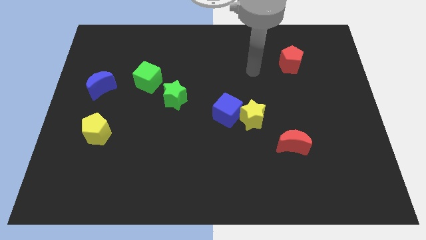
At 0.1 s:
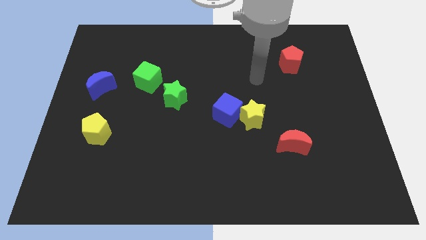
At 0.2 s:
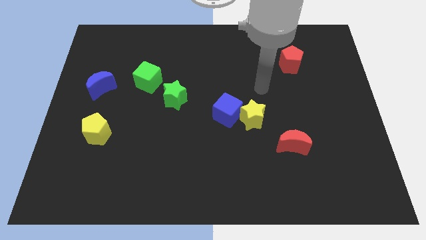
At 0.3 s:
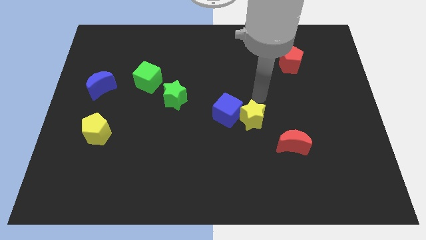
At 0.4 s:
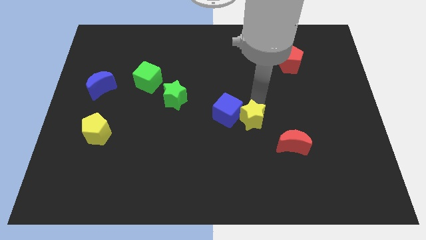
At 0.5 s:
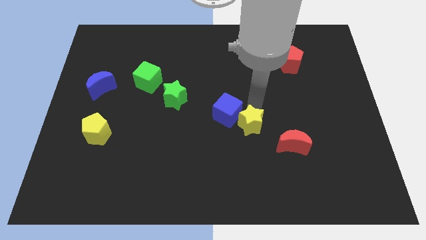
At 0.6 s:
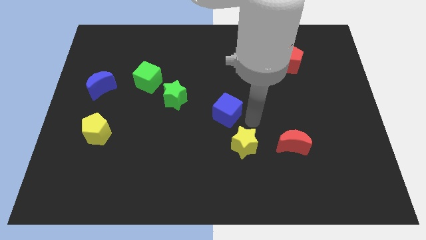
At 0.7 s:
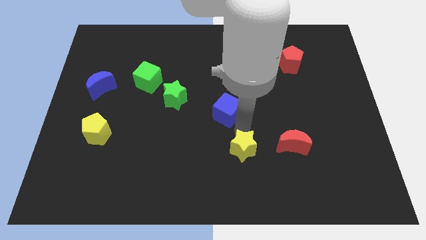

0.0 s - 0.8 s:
move the blue cube away from the yellow star

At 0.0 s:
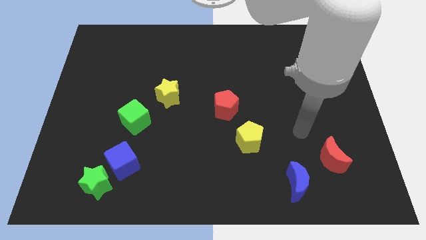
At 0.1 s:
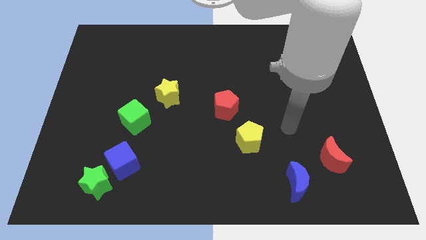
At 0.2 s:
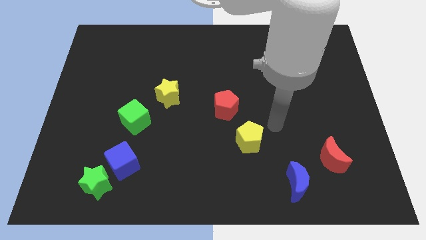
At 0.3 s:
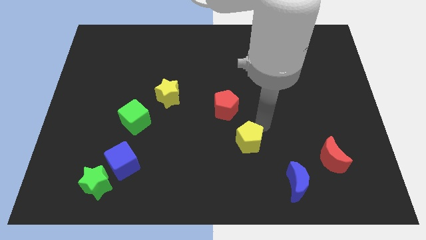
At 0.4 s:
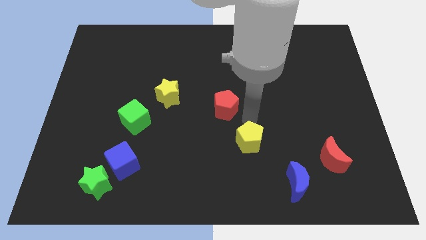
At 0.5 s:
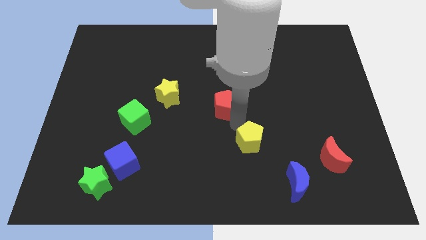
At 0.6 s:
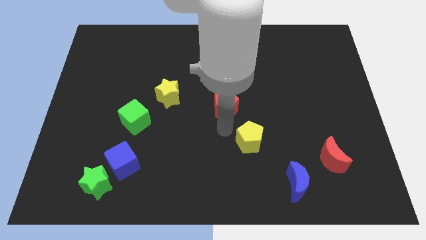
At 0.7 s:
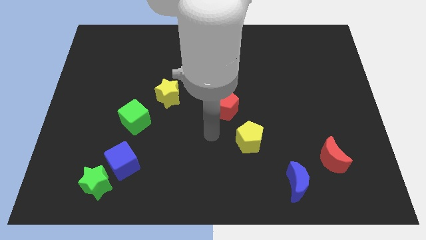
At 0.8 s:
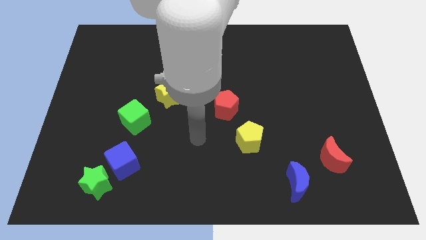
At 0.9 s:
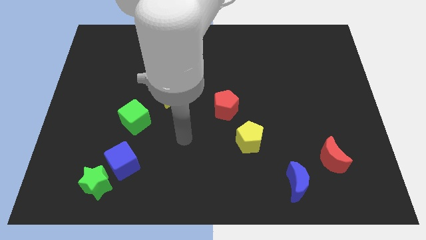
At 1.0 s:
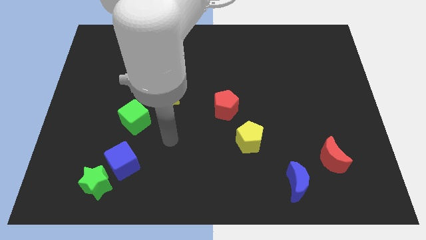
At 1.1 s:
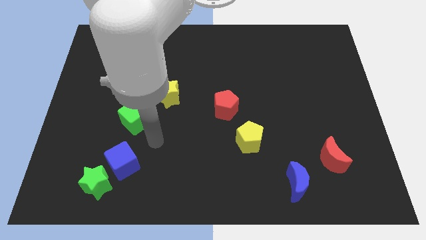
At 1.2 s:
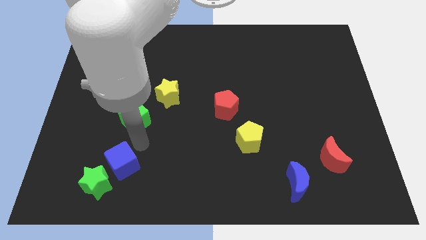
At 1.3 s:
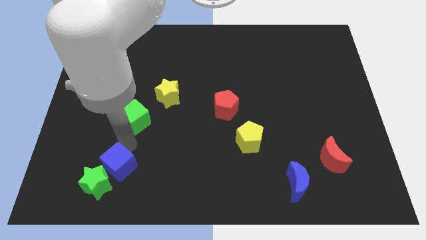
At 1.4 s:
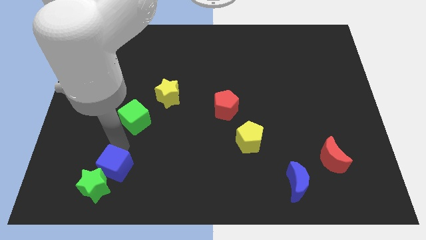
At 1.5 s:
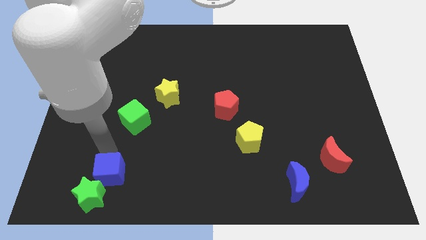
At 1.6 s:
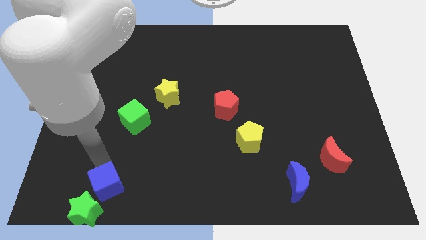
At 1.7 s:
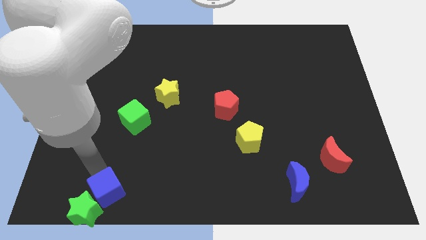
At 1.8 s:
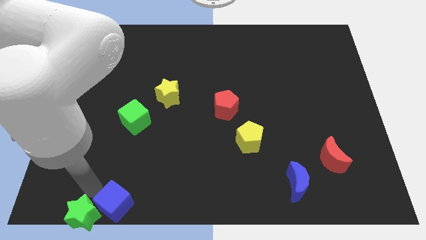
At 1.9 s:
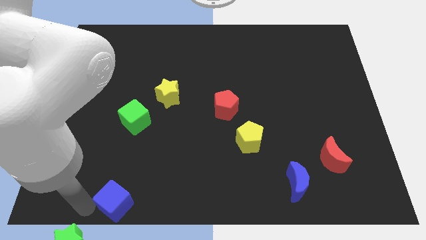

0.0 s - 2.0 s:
move the blue cube away from the green star

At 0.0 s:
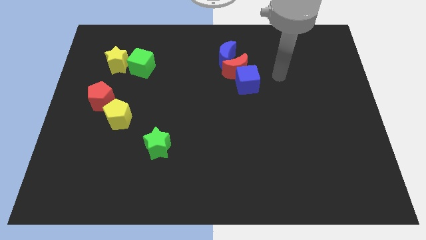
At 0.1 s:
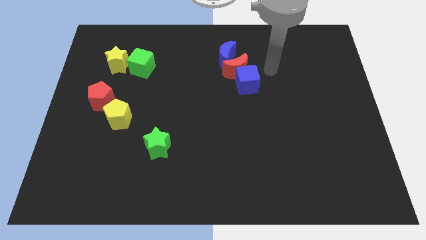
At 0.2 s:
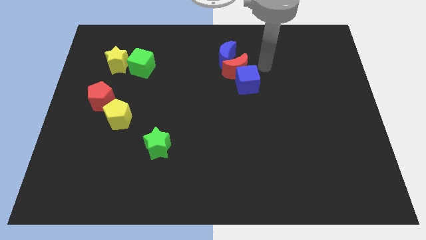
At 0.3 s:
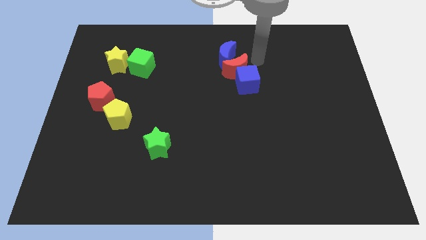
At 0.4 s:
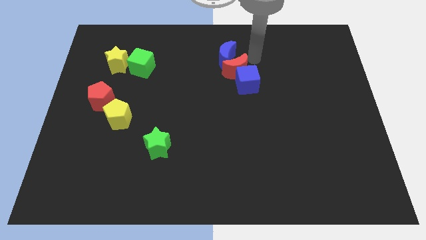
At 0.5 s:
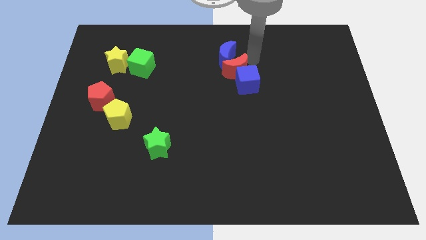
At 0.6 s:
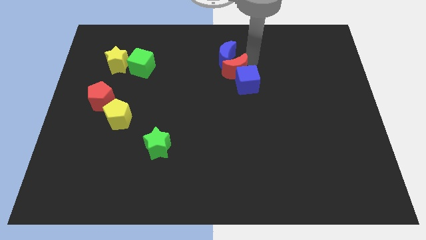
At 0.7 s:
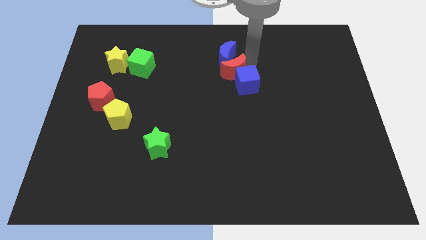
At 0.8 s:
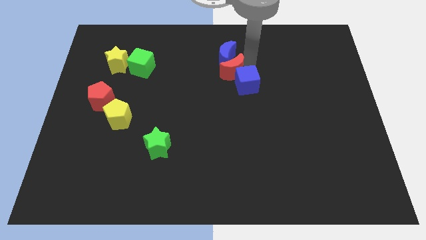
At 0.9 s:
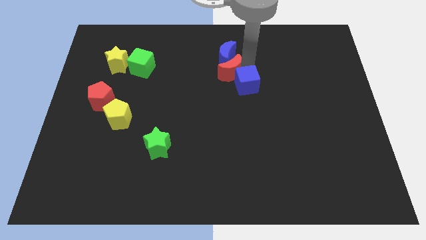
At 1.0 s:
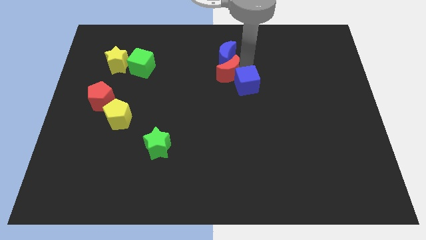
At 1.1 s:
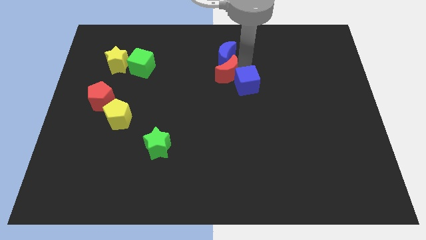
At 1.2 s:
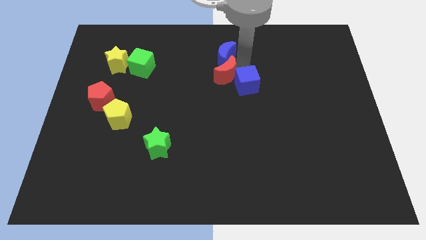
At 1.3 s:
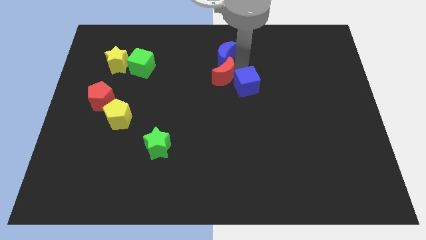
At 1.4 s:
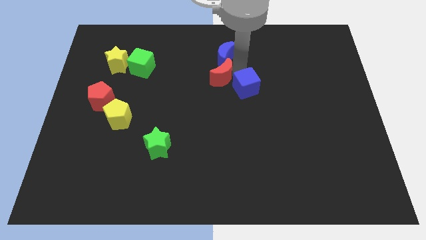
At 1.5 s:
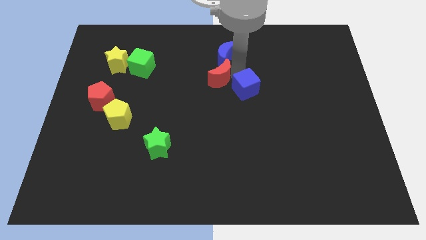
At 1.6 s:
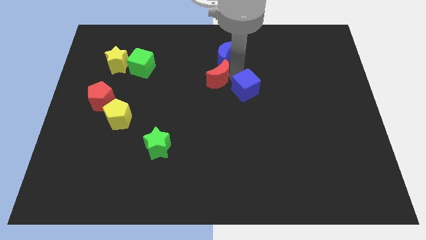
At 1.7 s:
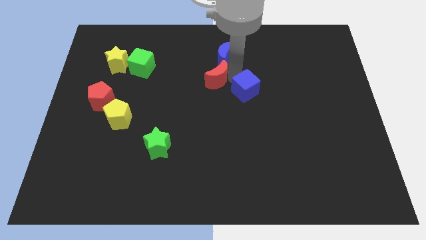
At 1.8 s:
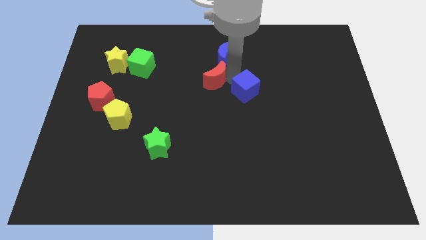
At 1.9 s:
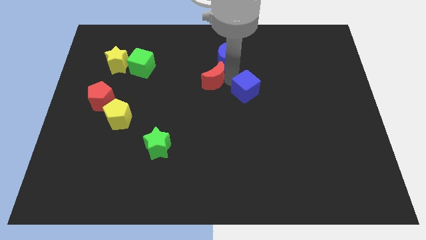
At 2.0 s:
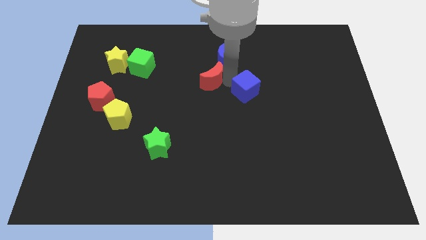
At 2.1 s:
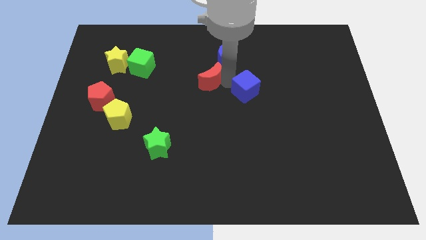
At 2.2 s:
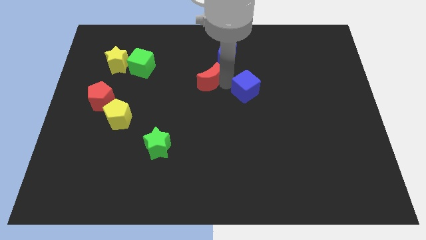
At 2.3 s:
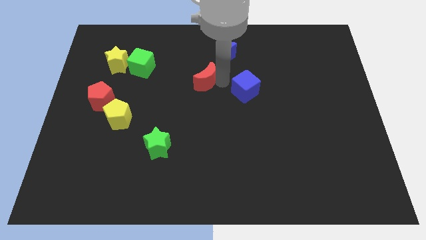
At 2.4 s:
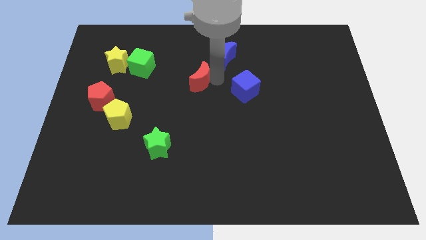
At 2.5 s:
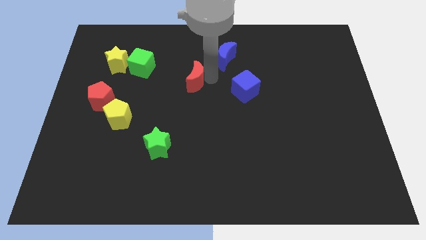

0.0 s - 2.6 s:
move the red moon away from the blue cube and blue moon

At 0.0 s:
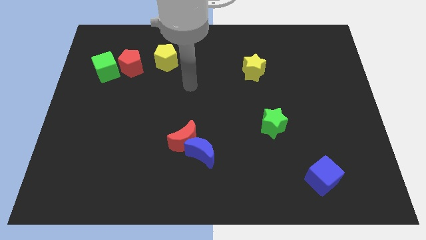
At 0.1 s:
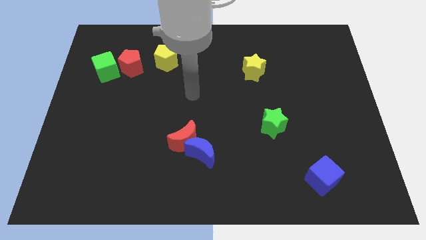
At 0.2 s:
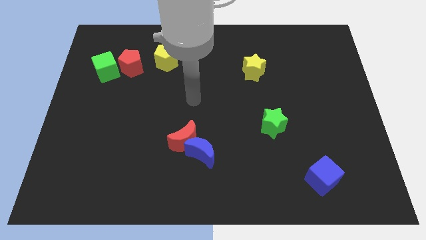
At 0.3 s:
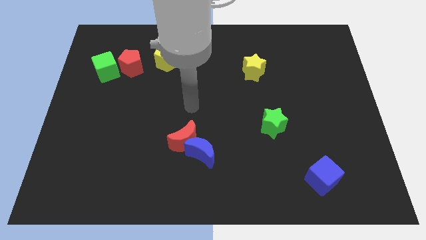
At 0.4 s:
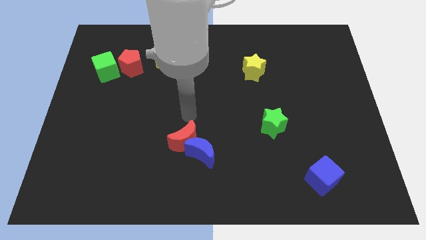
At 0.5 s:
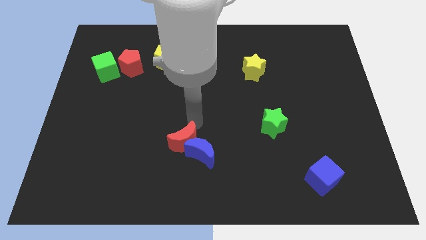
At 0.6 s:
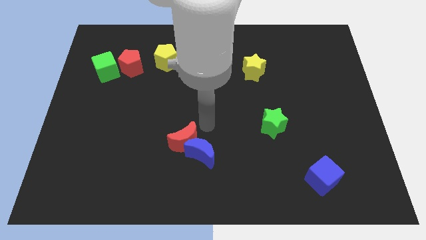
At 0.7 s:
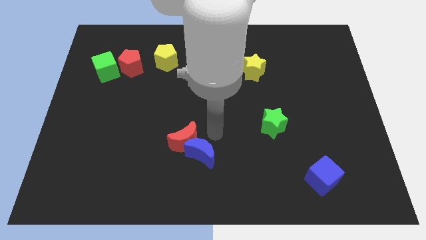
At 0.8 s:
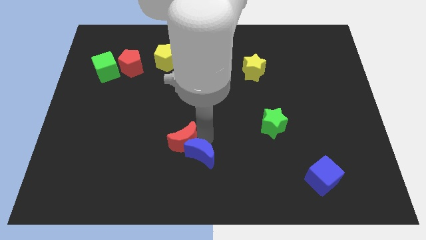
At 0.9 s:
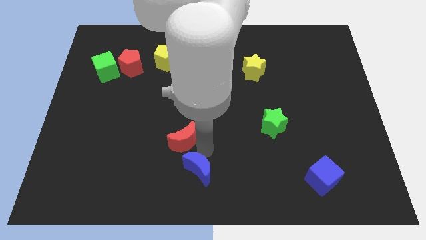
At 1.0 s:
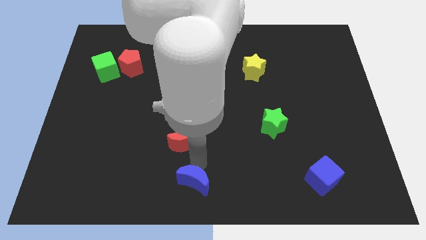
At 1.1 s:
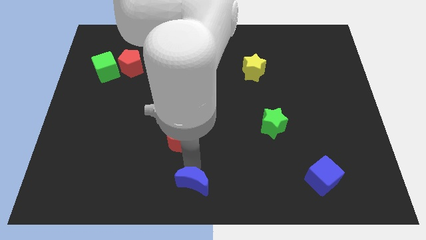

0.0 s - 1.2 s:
pull the red moon apart from the blue moon

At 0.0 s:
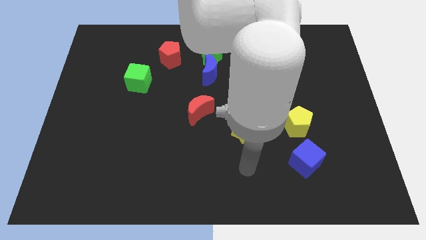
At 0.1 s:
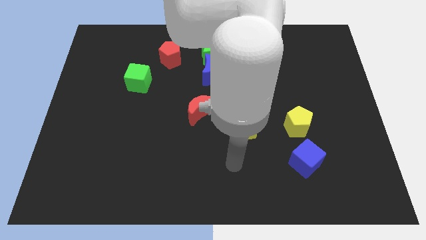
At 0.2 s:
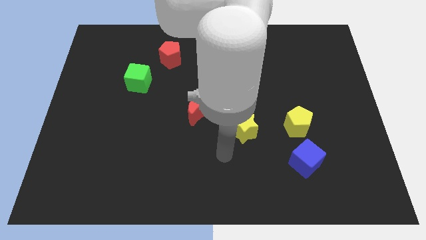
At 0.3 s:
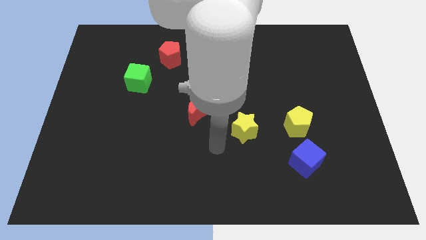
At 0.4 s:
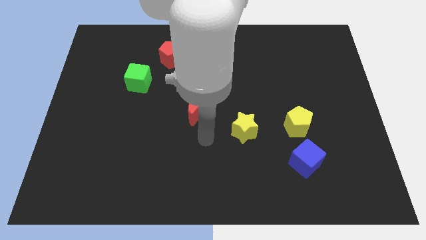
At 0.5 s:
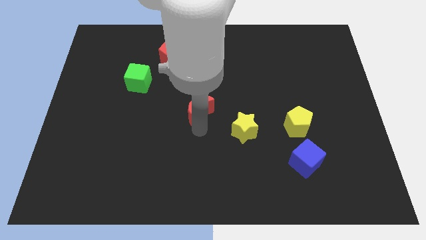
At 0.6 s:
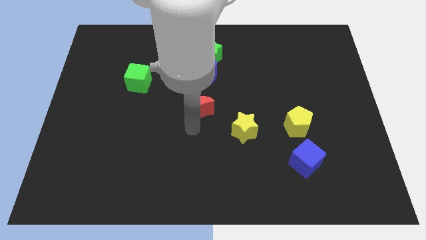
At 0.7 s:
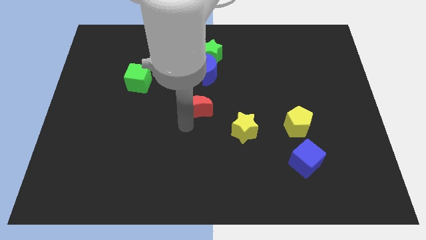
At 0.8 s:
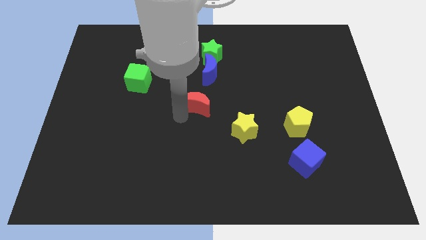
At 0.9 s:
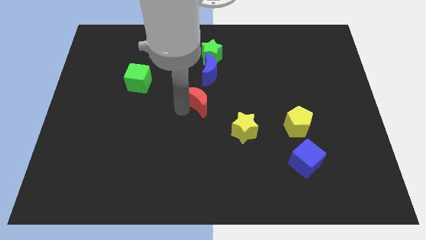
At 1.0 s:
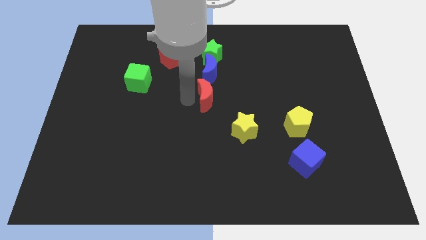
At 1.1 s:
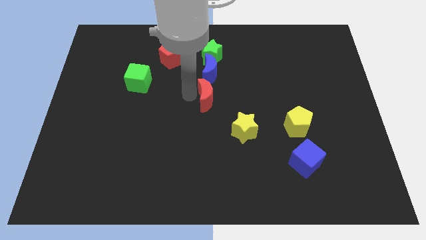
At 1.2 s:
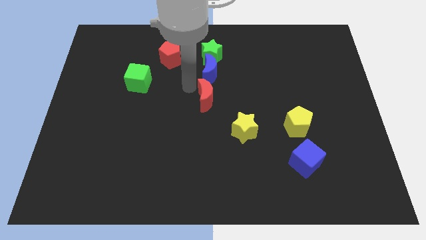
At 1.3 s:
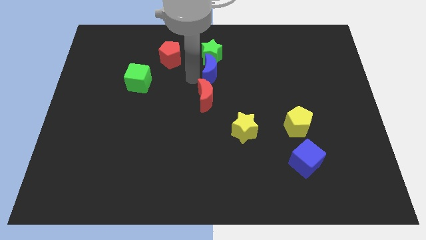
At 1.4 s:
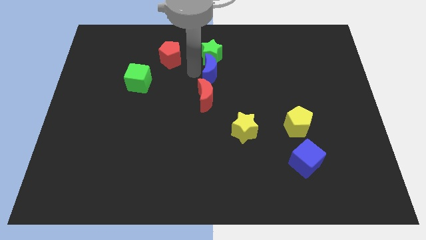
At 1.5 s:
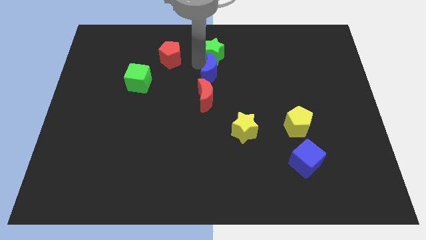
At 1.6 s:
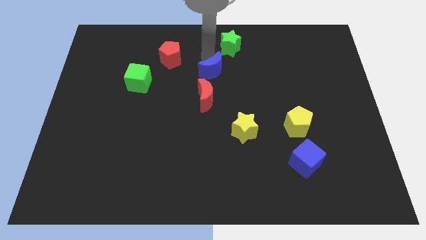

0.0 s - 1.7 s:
separate the blue moon from the green star

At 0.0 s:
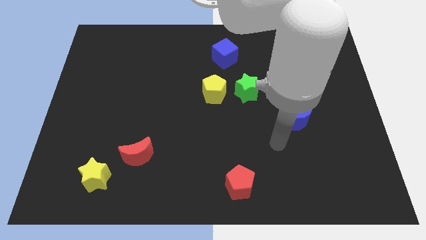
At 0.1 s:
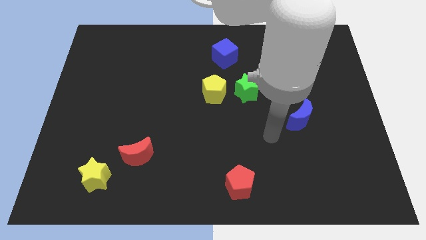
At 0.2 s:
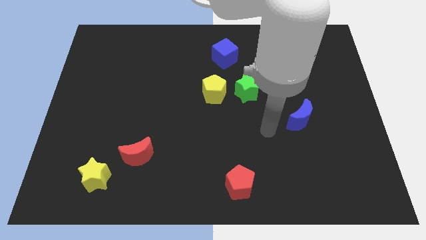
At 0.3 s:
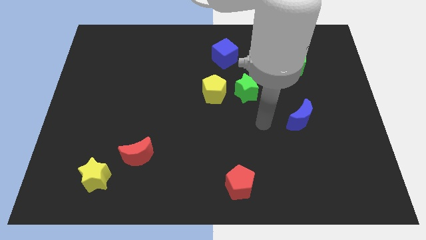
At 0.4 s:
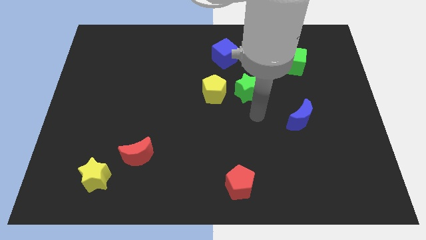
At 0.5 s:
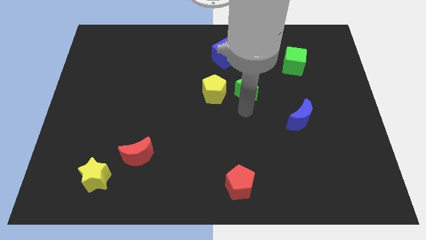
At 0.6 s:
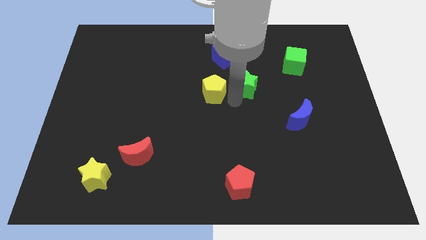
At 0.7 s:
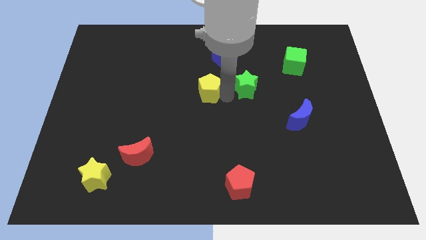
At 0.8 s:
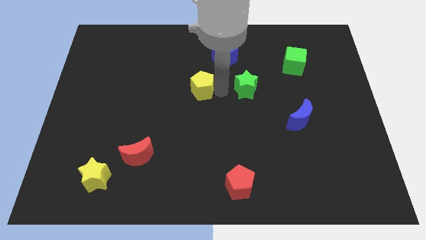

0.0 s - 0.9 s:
separate the green star from the yellow pentagon

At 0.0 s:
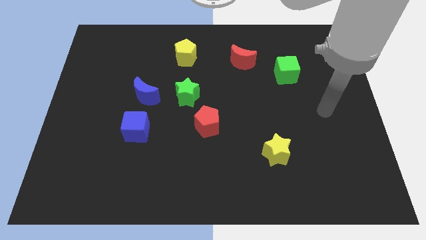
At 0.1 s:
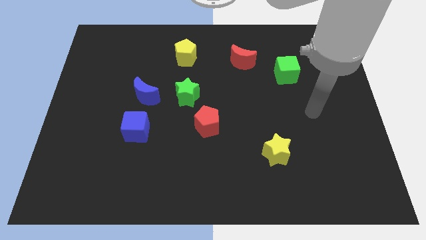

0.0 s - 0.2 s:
move the blue cube away from the blue moon
